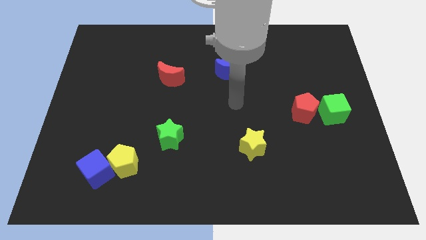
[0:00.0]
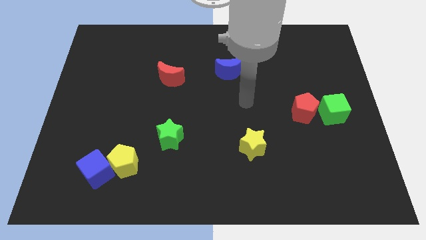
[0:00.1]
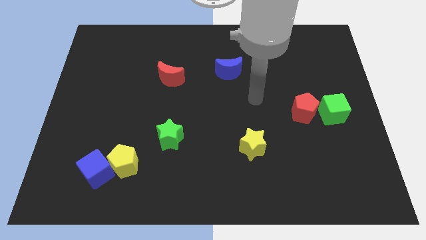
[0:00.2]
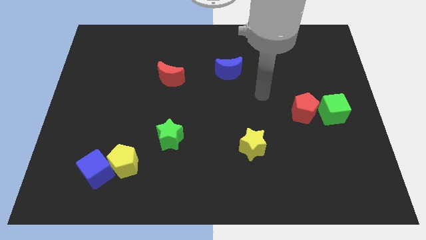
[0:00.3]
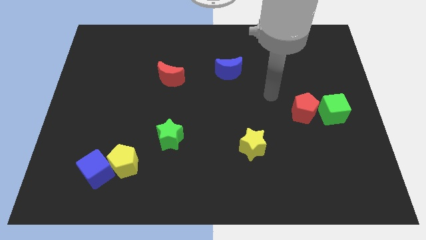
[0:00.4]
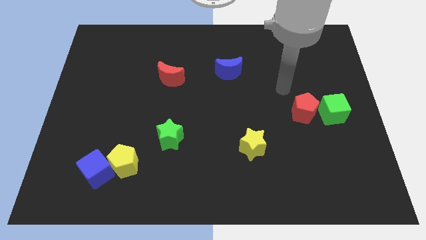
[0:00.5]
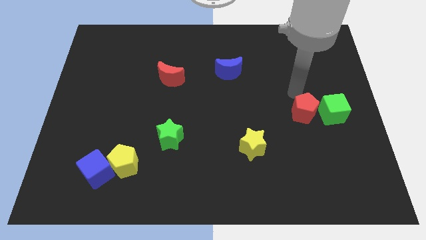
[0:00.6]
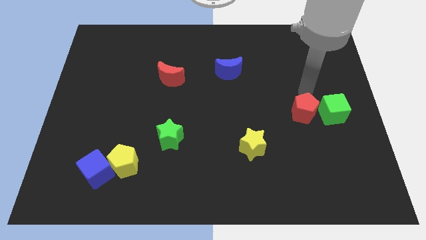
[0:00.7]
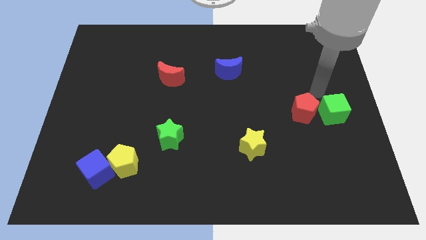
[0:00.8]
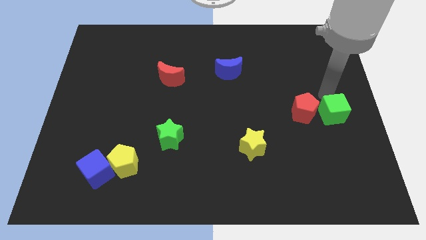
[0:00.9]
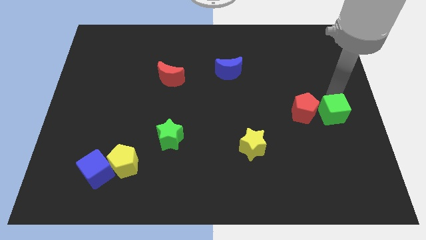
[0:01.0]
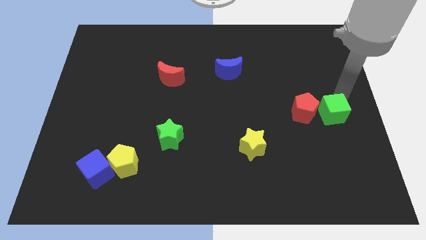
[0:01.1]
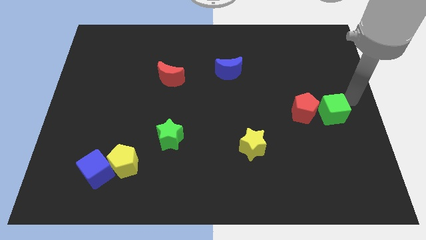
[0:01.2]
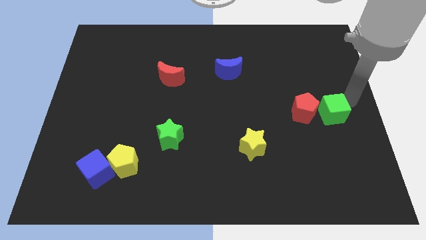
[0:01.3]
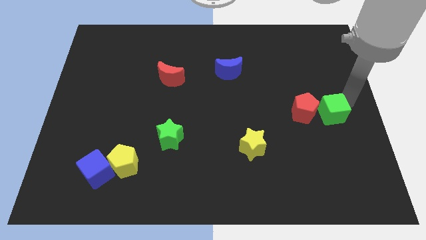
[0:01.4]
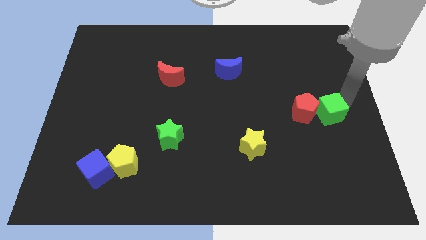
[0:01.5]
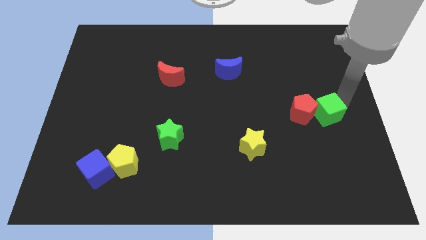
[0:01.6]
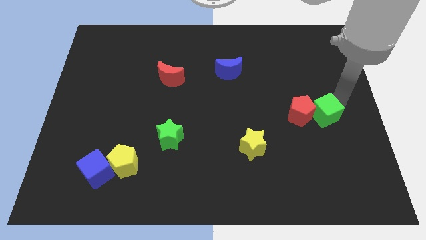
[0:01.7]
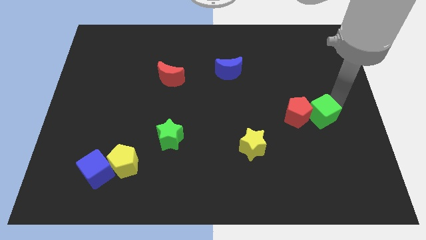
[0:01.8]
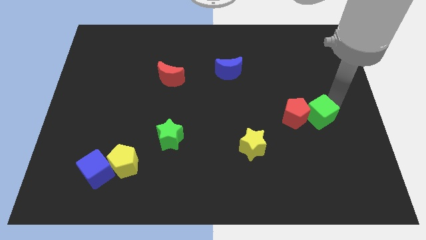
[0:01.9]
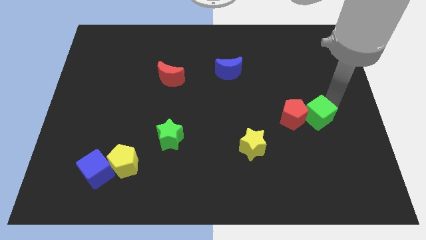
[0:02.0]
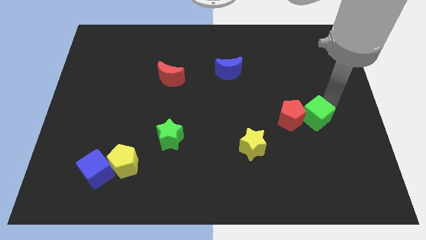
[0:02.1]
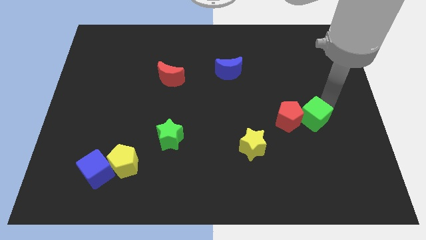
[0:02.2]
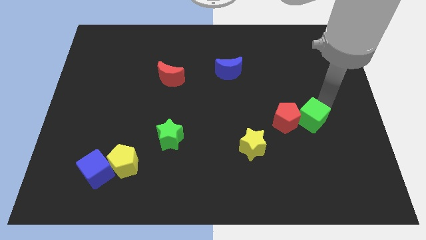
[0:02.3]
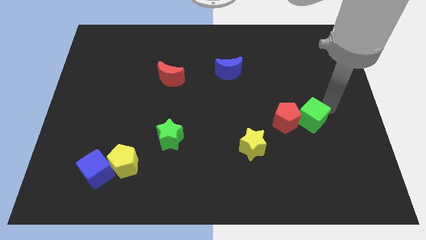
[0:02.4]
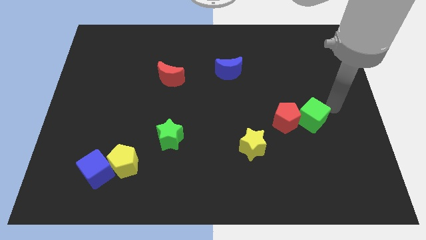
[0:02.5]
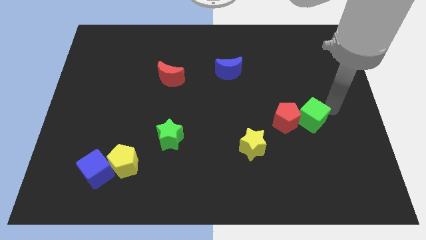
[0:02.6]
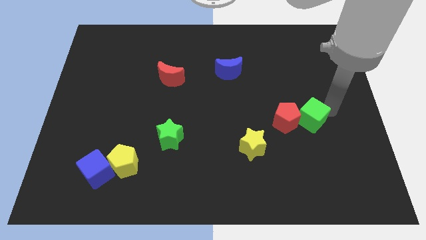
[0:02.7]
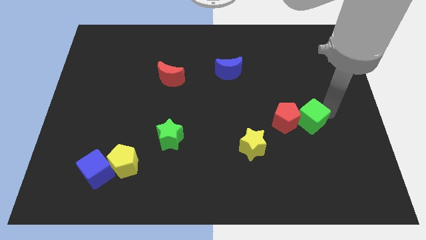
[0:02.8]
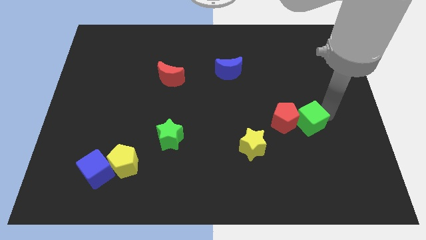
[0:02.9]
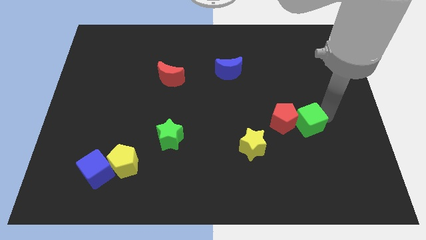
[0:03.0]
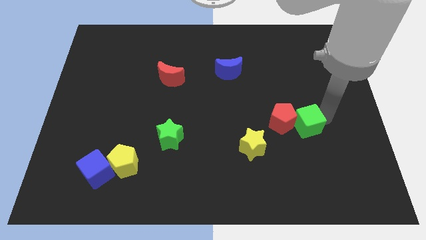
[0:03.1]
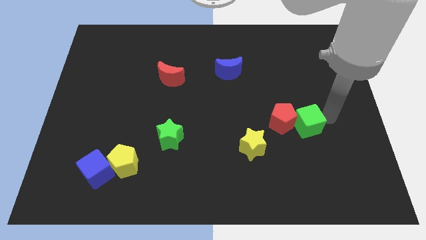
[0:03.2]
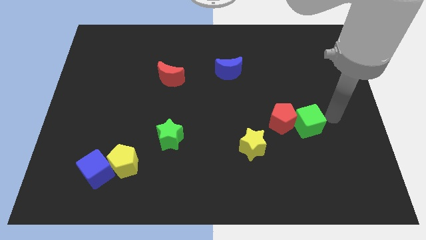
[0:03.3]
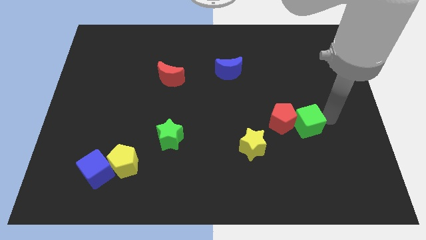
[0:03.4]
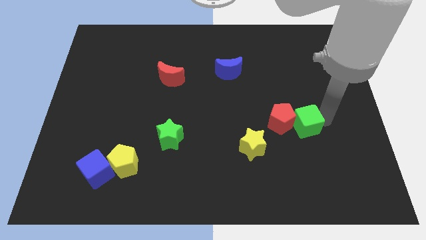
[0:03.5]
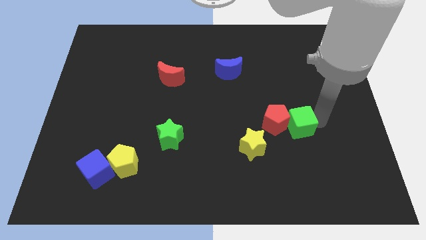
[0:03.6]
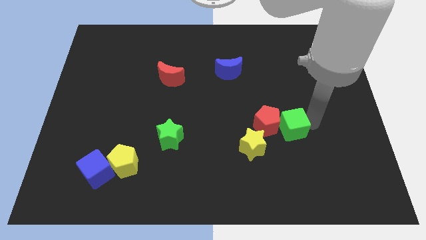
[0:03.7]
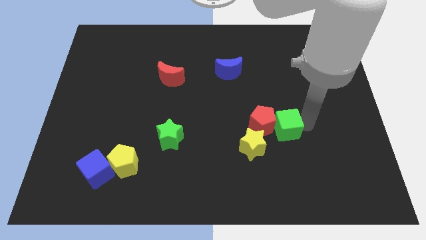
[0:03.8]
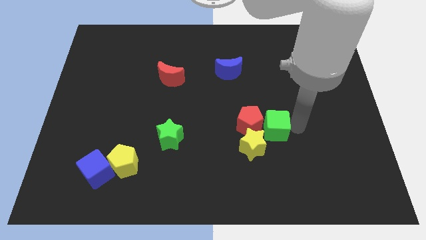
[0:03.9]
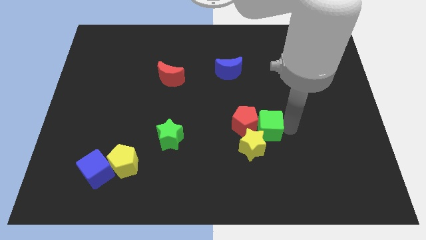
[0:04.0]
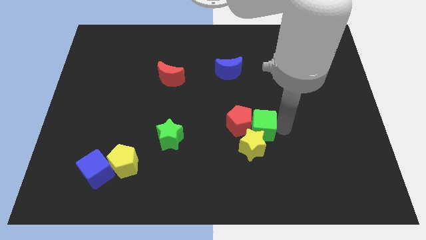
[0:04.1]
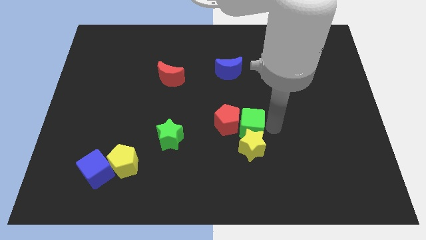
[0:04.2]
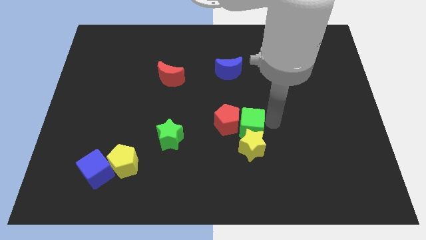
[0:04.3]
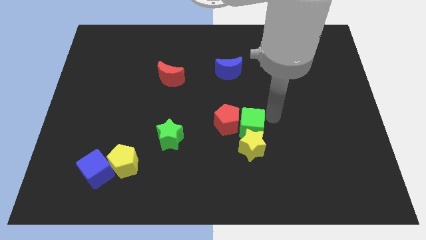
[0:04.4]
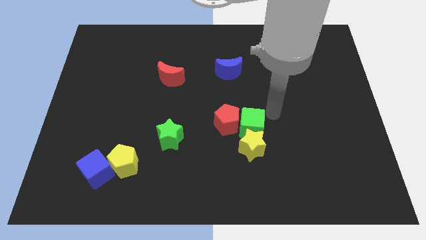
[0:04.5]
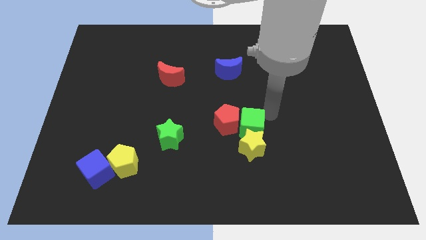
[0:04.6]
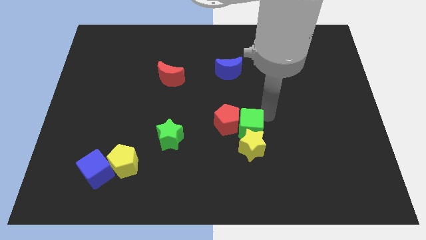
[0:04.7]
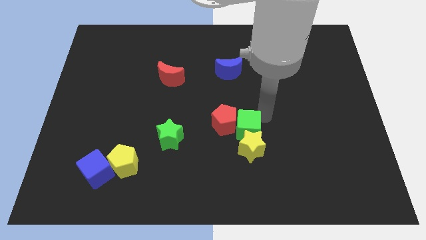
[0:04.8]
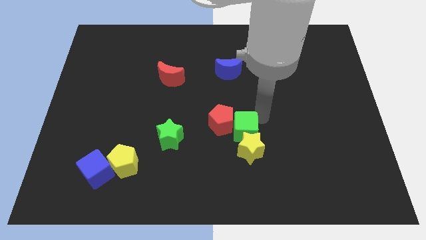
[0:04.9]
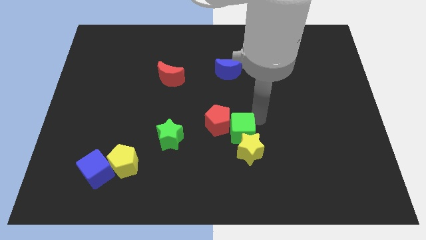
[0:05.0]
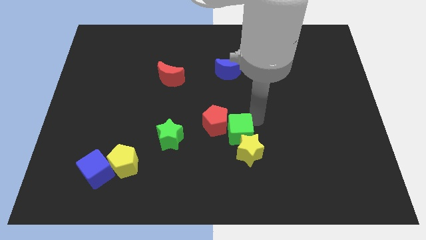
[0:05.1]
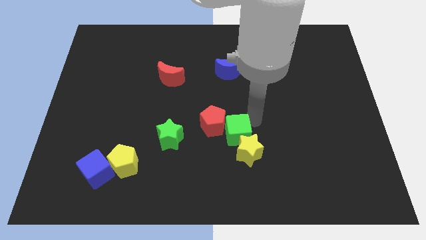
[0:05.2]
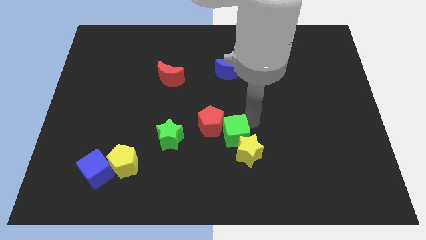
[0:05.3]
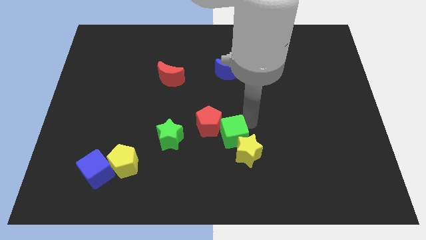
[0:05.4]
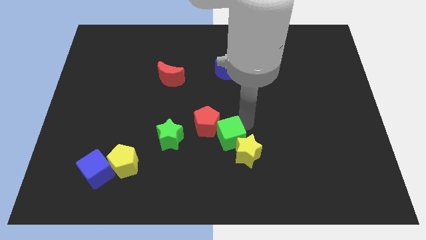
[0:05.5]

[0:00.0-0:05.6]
push the green cube left of the yellow star

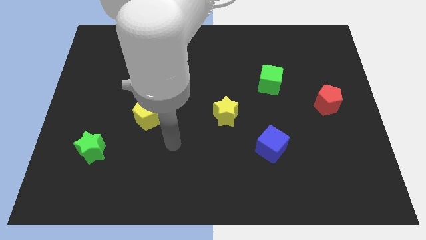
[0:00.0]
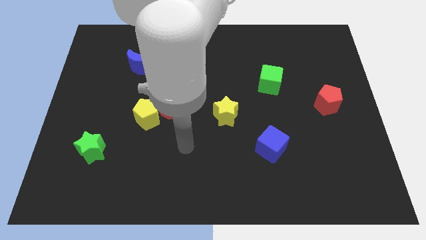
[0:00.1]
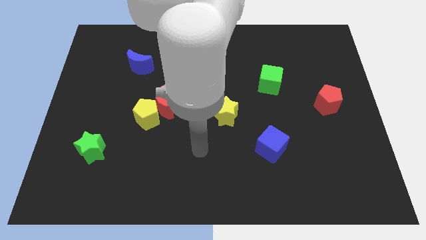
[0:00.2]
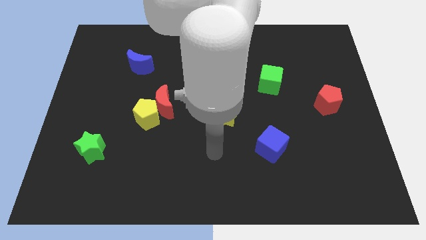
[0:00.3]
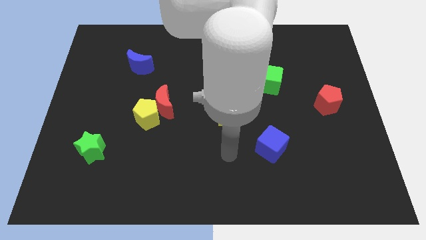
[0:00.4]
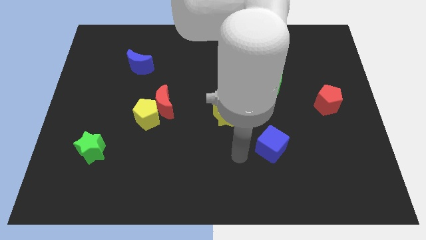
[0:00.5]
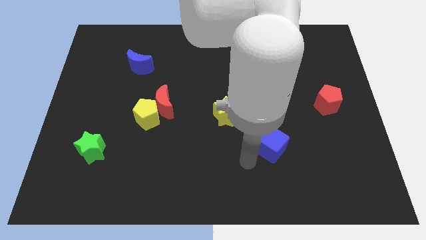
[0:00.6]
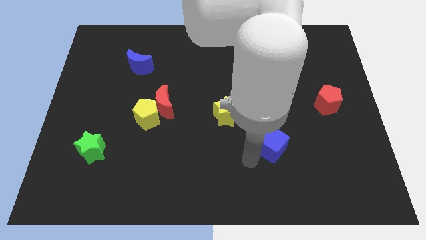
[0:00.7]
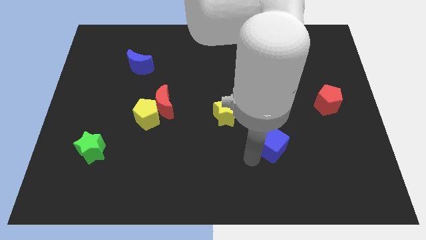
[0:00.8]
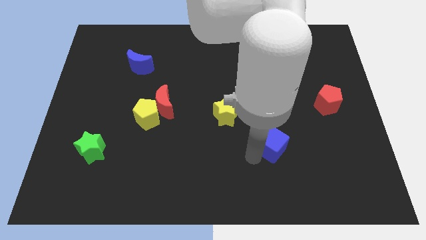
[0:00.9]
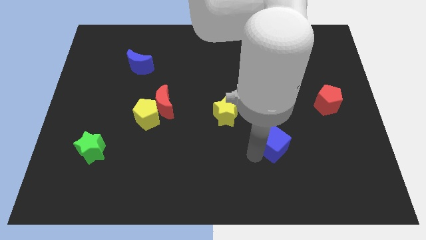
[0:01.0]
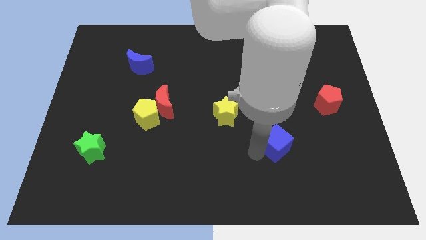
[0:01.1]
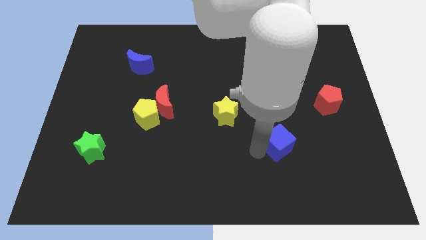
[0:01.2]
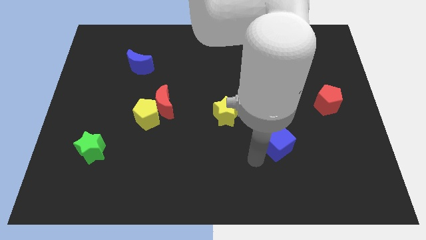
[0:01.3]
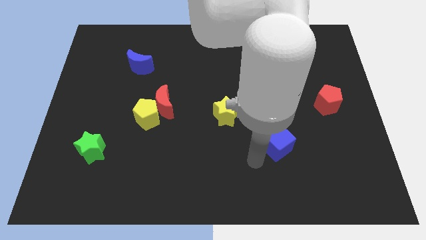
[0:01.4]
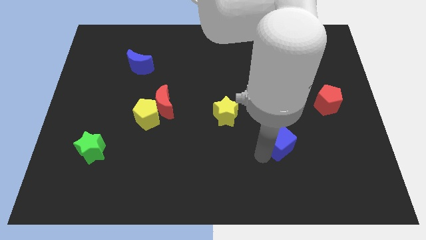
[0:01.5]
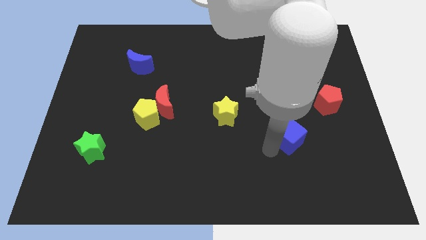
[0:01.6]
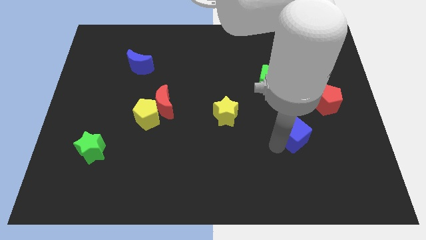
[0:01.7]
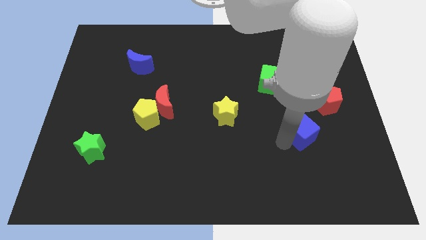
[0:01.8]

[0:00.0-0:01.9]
put the blue cube diagonally down and to the left of the red pentagon
